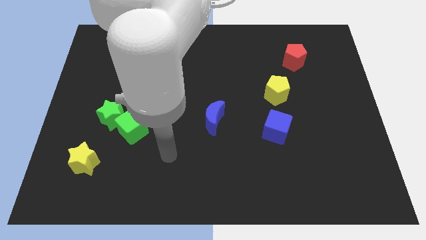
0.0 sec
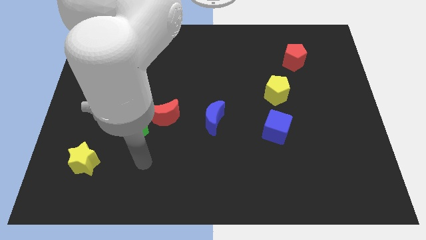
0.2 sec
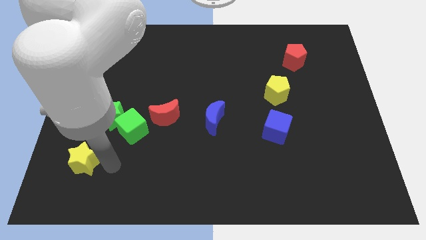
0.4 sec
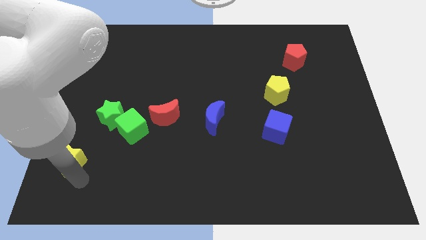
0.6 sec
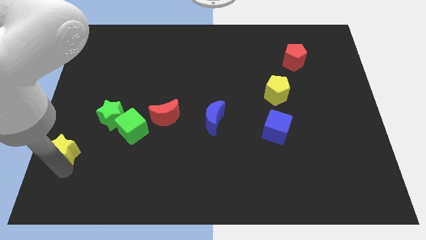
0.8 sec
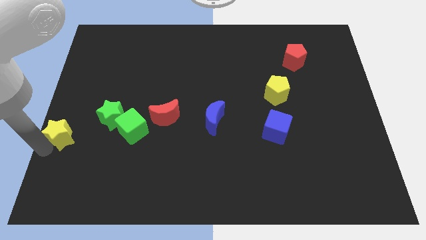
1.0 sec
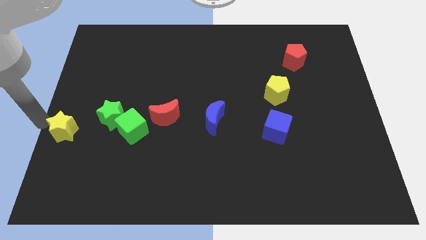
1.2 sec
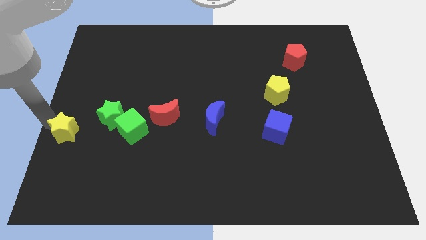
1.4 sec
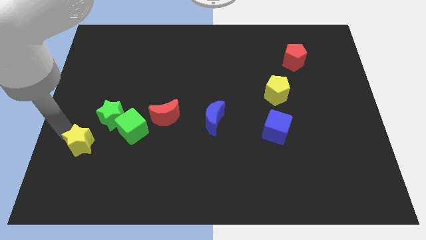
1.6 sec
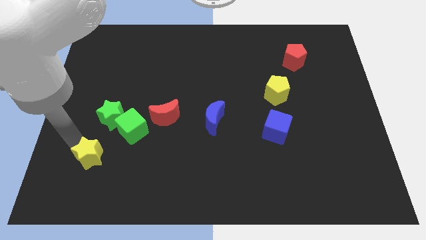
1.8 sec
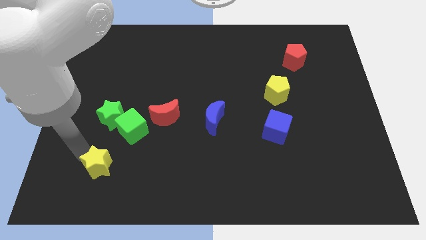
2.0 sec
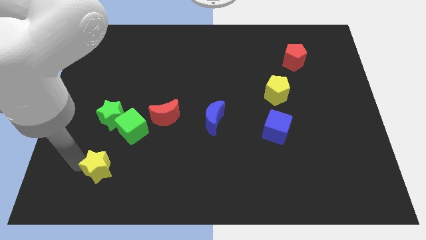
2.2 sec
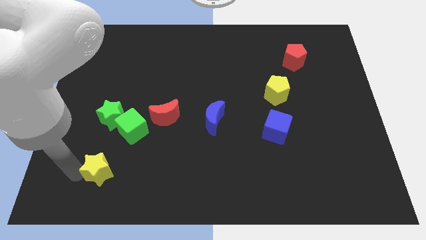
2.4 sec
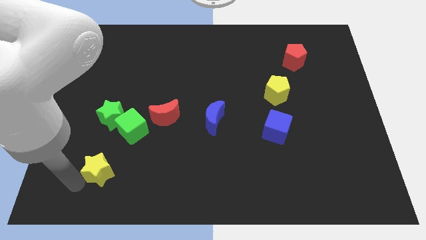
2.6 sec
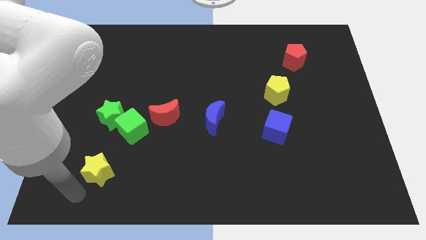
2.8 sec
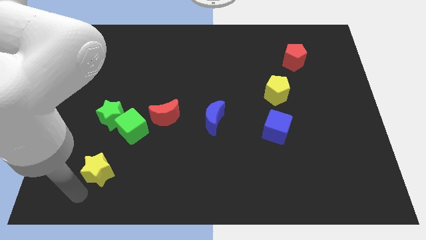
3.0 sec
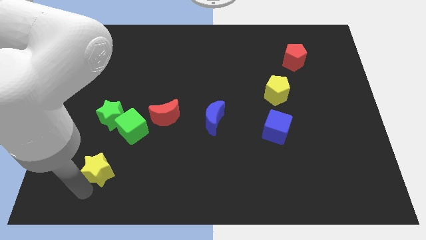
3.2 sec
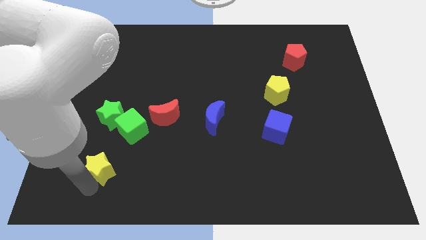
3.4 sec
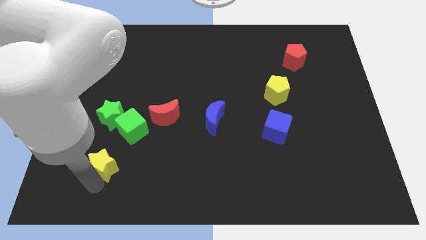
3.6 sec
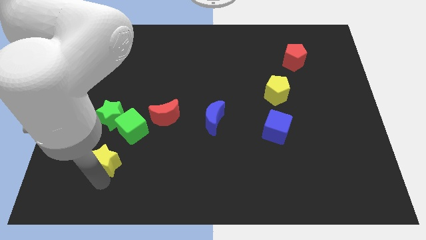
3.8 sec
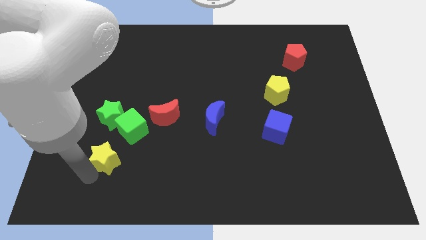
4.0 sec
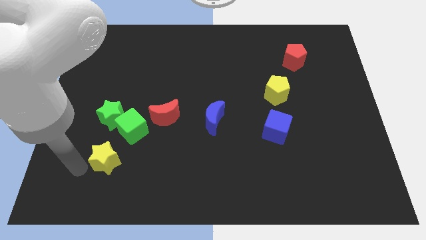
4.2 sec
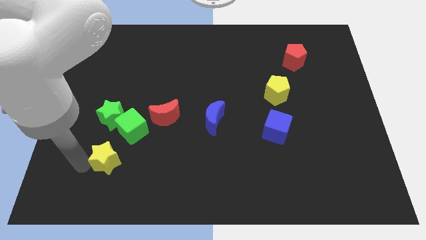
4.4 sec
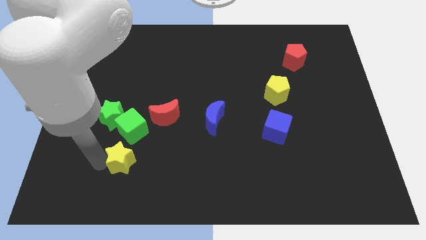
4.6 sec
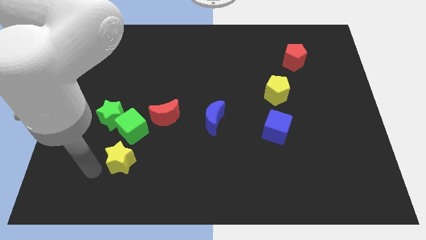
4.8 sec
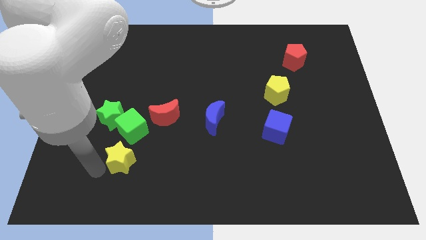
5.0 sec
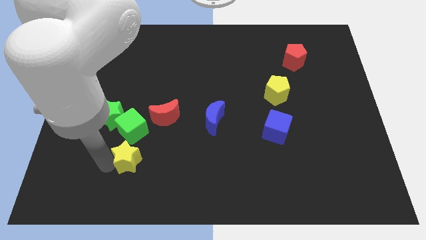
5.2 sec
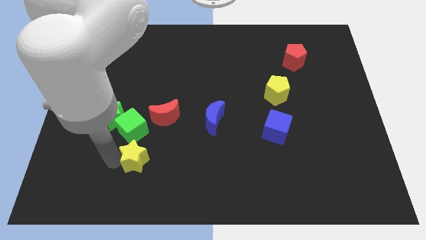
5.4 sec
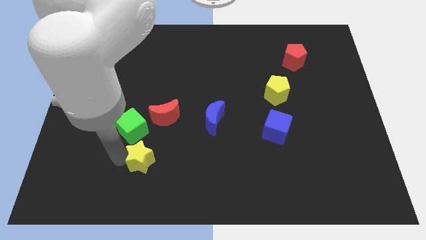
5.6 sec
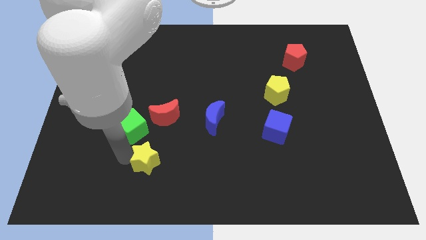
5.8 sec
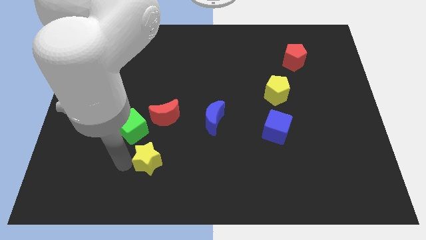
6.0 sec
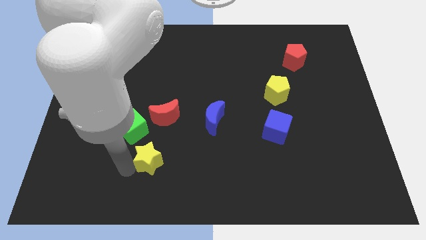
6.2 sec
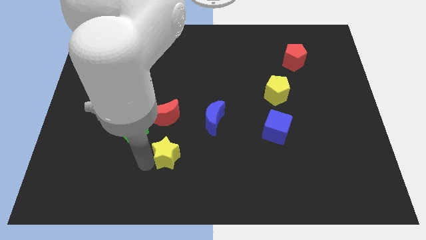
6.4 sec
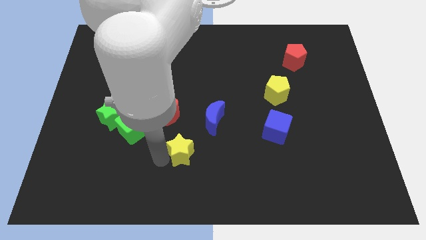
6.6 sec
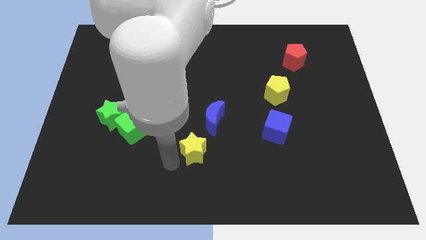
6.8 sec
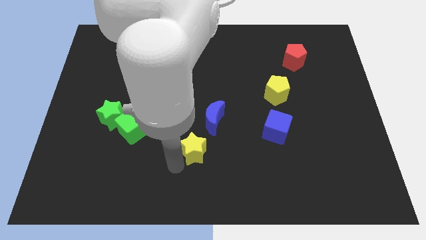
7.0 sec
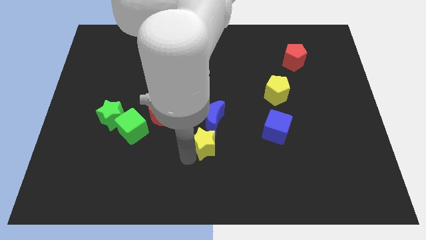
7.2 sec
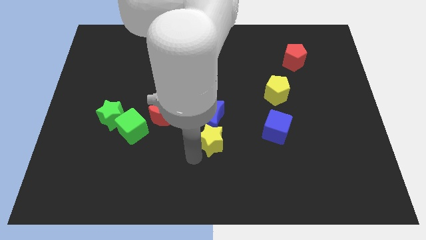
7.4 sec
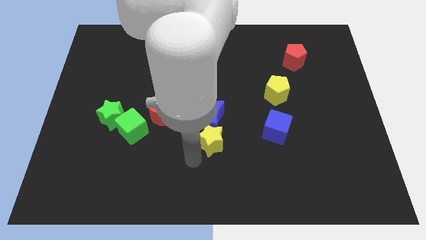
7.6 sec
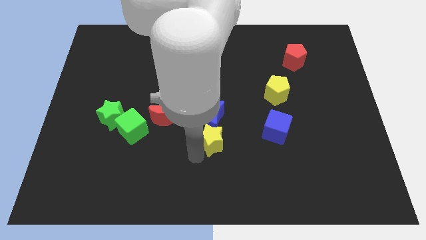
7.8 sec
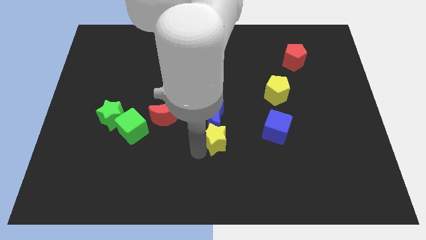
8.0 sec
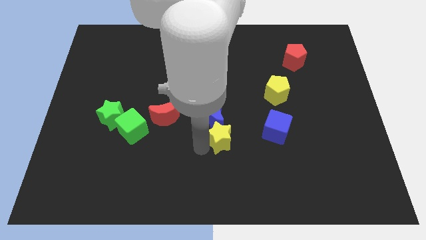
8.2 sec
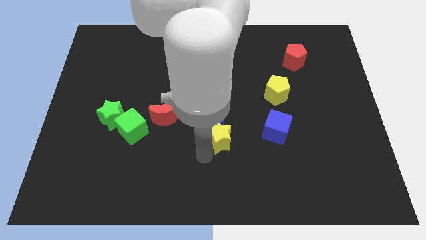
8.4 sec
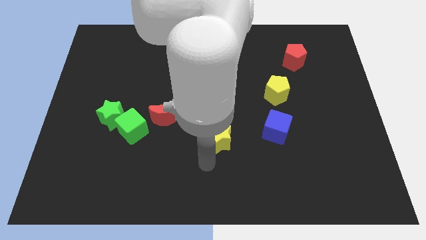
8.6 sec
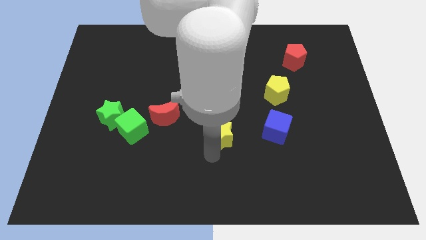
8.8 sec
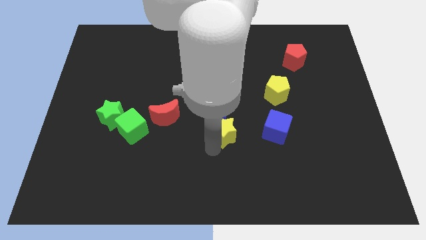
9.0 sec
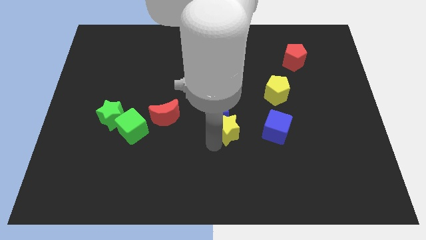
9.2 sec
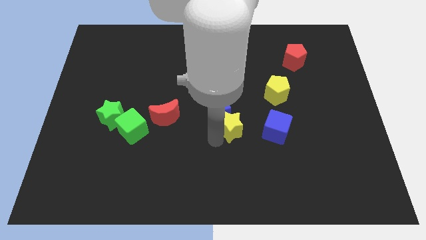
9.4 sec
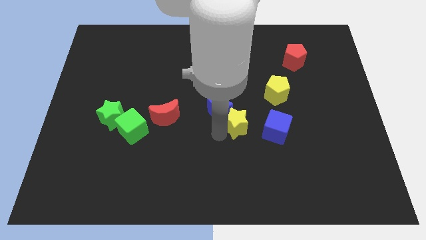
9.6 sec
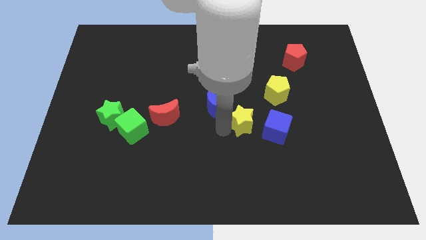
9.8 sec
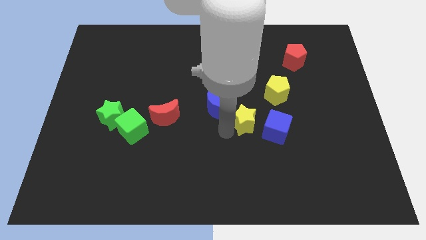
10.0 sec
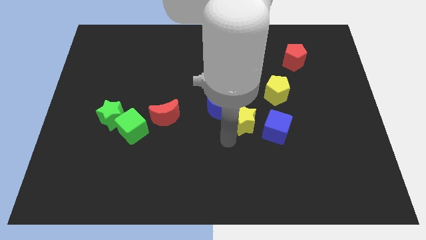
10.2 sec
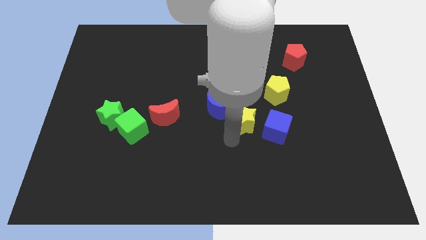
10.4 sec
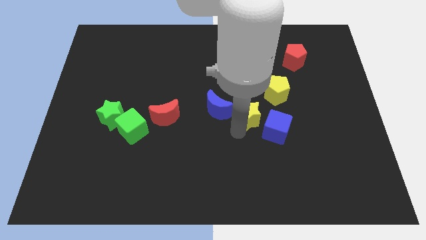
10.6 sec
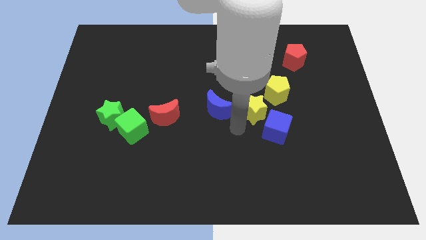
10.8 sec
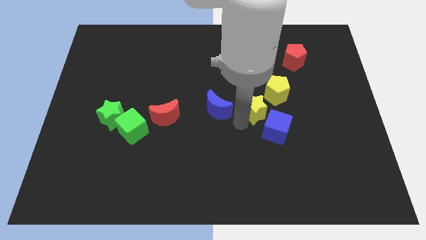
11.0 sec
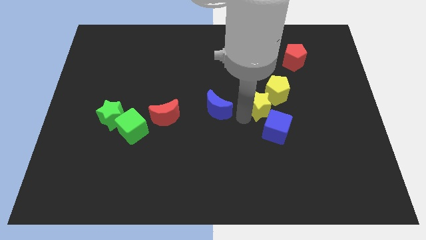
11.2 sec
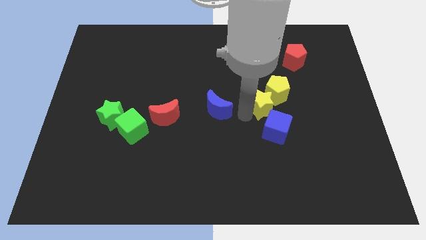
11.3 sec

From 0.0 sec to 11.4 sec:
put the yellow star to the yellow pentagon

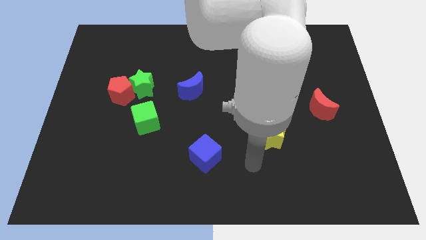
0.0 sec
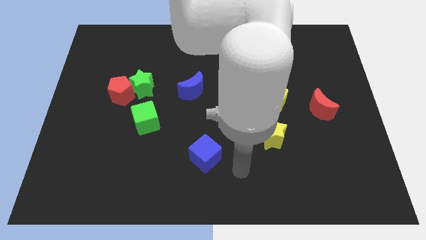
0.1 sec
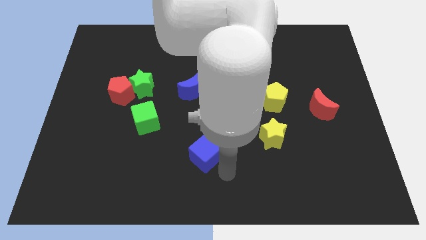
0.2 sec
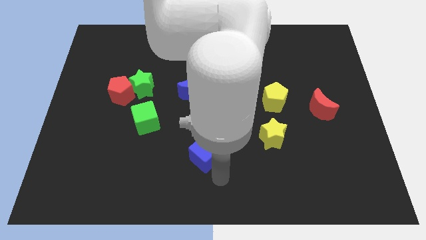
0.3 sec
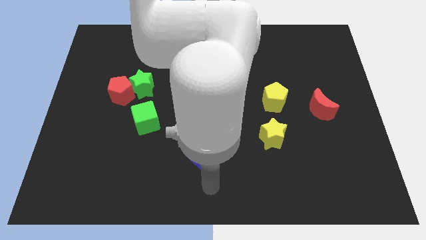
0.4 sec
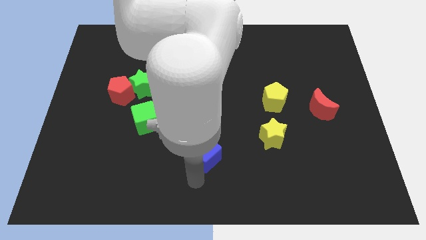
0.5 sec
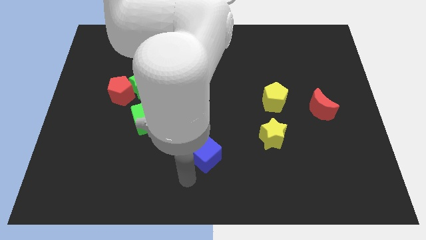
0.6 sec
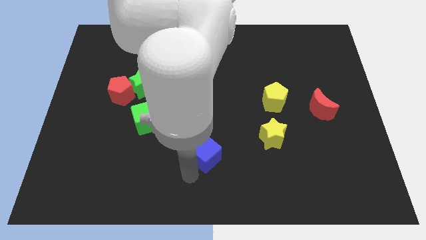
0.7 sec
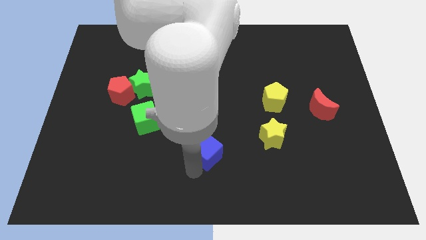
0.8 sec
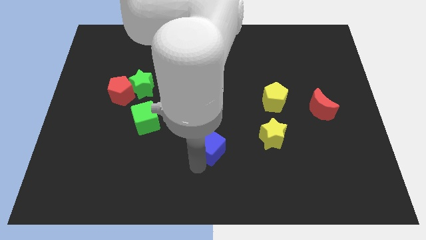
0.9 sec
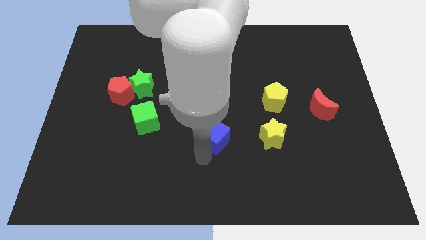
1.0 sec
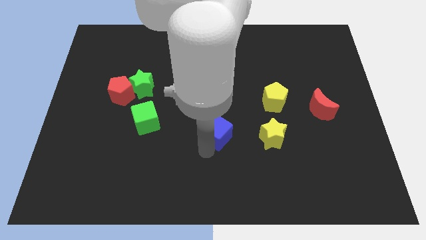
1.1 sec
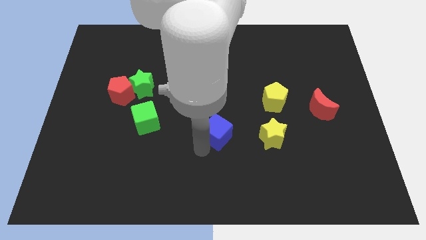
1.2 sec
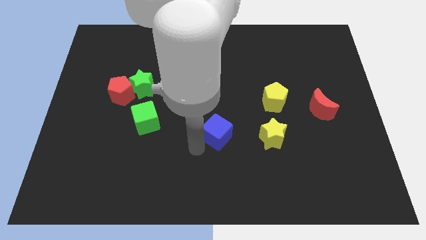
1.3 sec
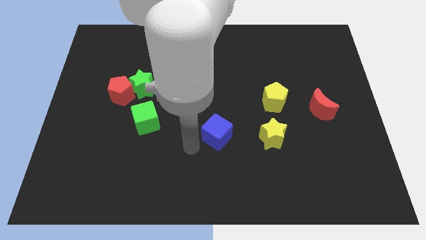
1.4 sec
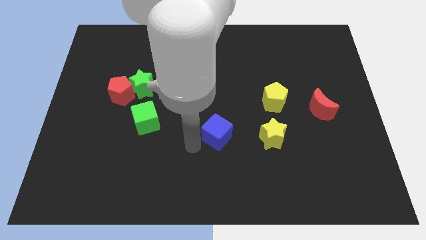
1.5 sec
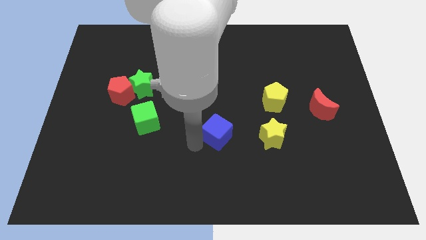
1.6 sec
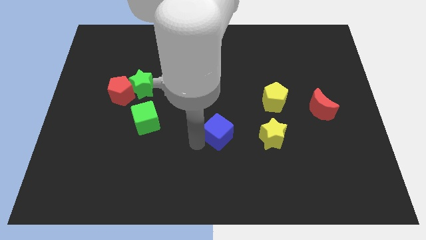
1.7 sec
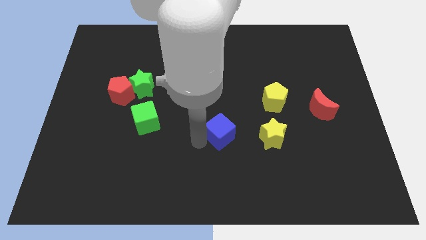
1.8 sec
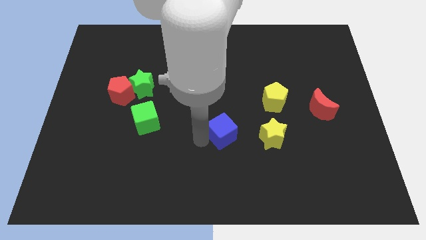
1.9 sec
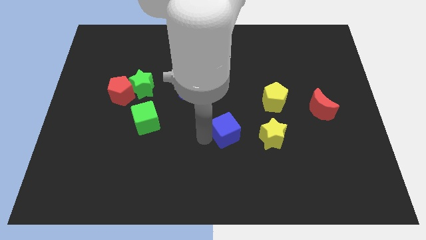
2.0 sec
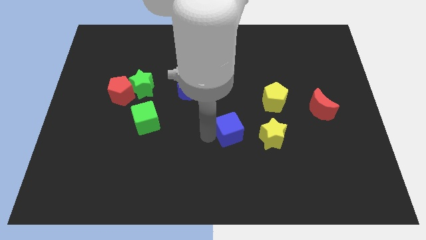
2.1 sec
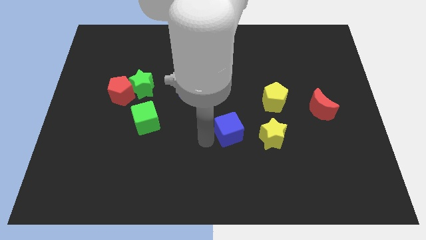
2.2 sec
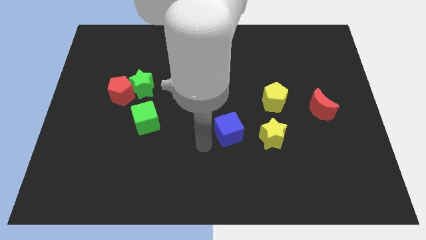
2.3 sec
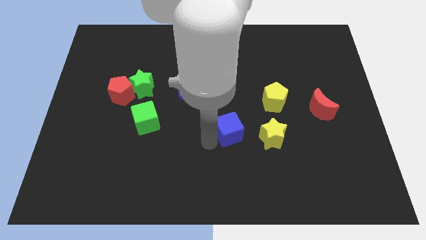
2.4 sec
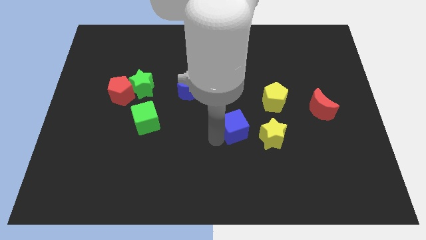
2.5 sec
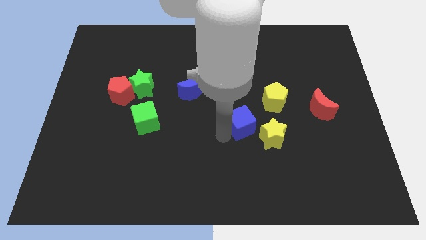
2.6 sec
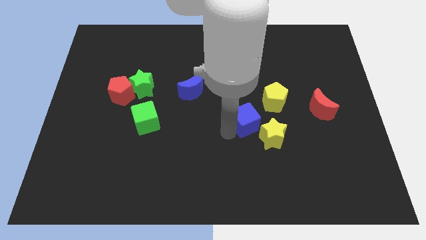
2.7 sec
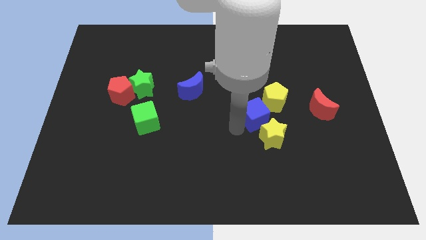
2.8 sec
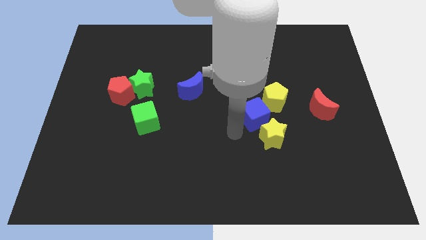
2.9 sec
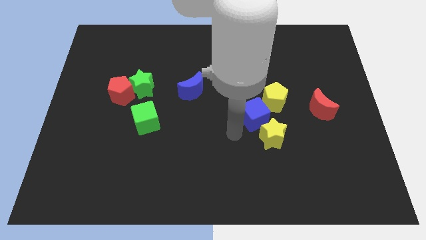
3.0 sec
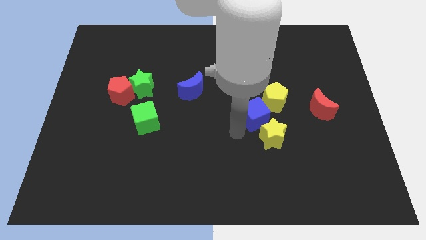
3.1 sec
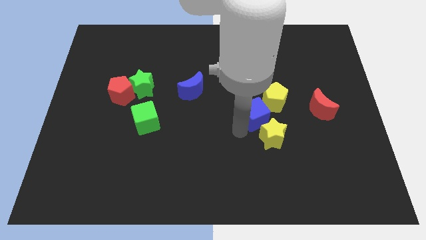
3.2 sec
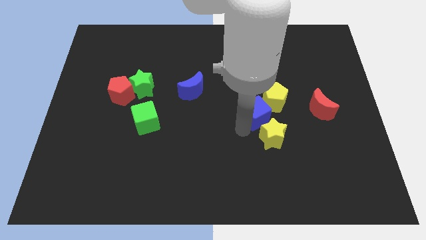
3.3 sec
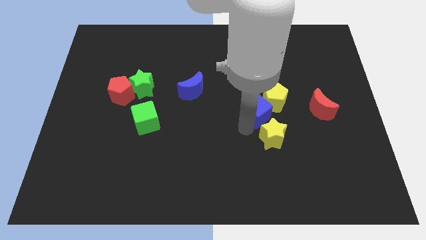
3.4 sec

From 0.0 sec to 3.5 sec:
push the blue cube close to the yellow pentagon
